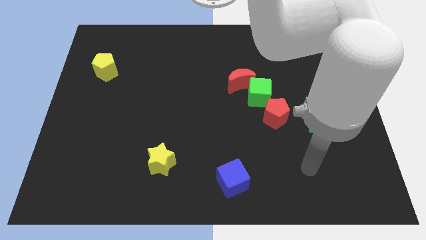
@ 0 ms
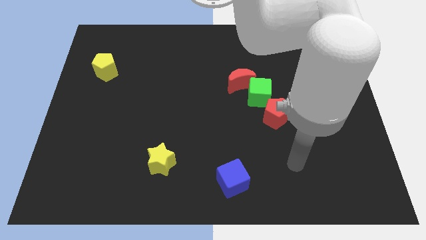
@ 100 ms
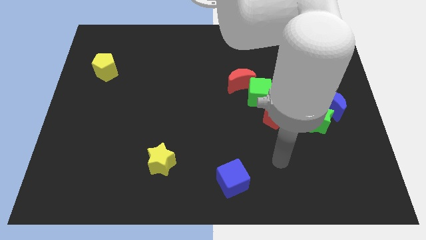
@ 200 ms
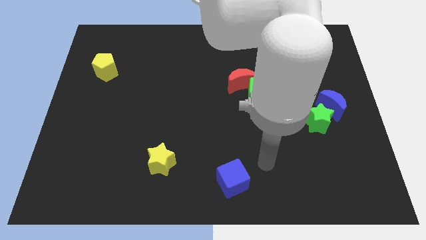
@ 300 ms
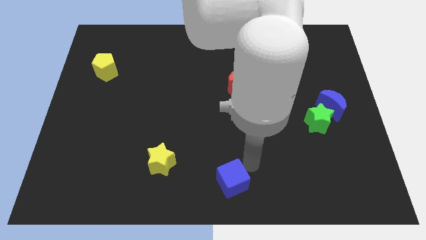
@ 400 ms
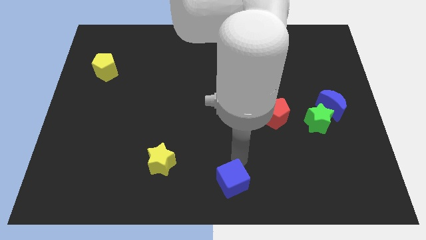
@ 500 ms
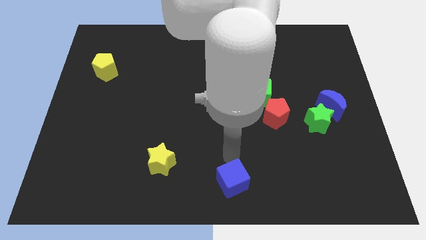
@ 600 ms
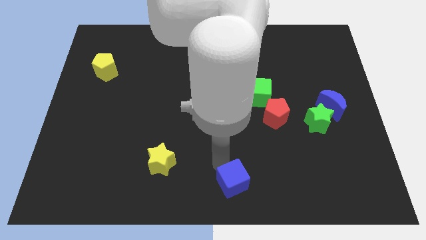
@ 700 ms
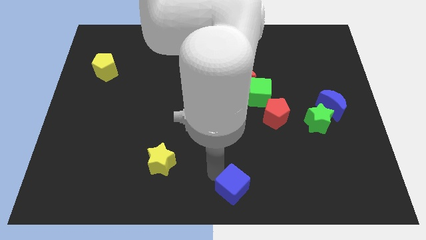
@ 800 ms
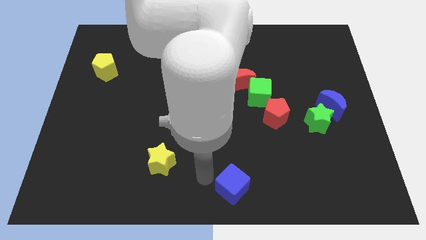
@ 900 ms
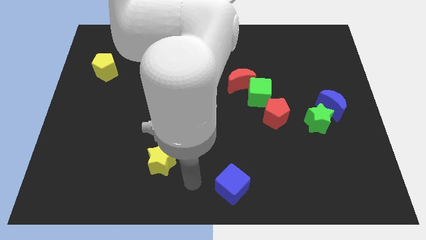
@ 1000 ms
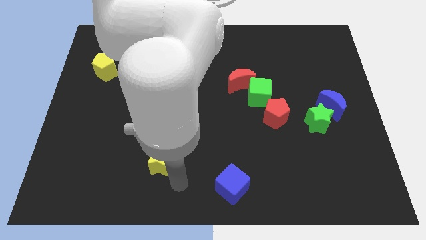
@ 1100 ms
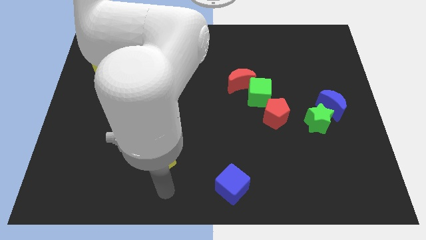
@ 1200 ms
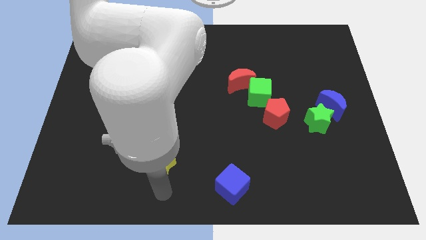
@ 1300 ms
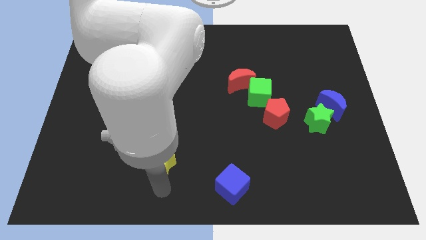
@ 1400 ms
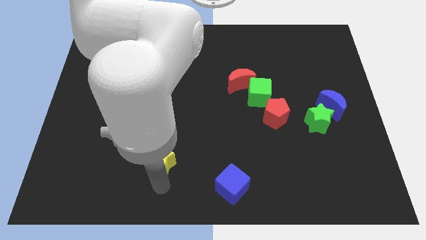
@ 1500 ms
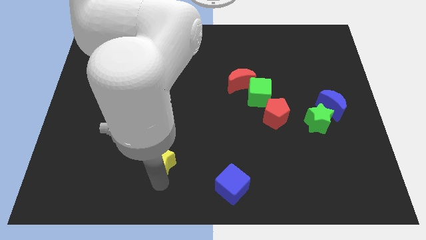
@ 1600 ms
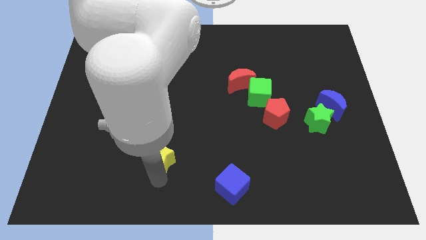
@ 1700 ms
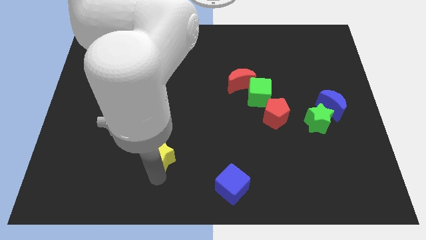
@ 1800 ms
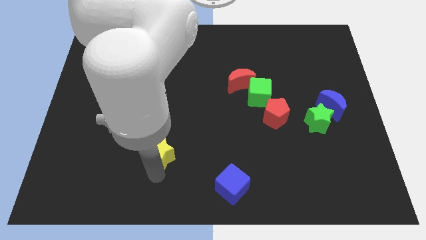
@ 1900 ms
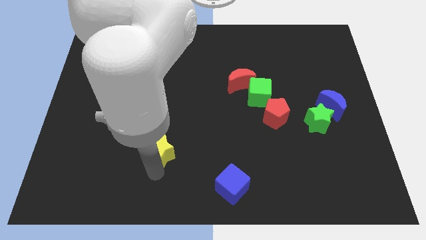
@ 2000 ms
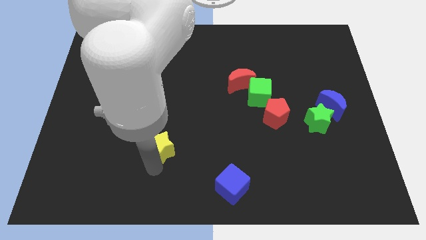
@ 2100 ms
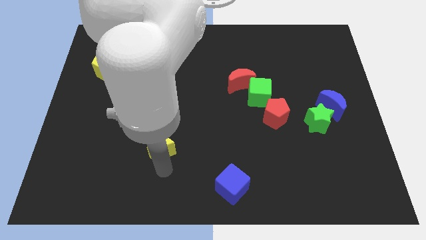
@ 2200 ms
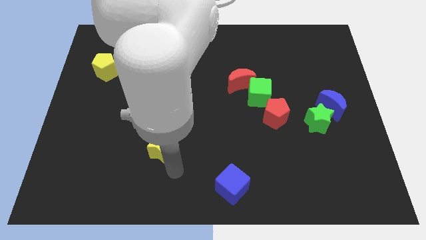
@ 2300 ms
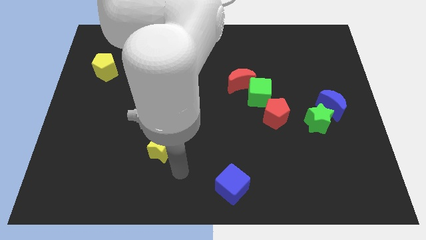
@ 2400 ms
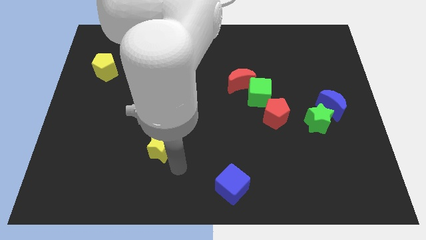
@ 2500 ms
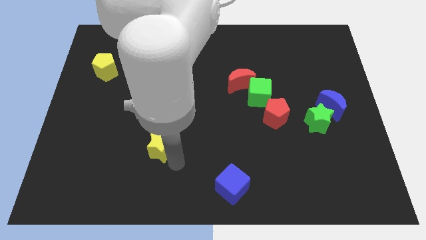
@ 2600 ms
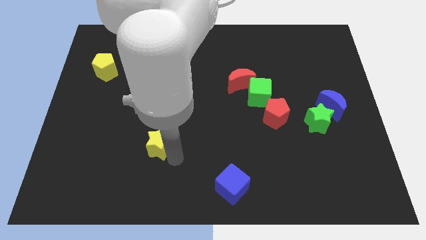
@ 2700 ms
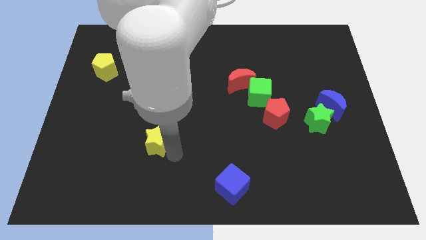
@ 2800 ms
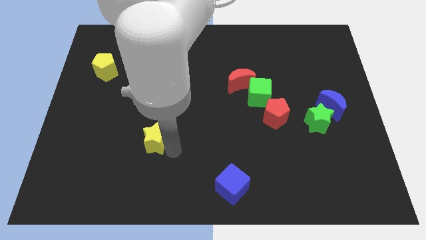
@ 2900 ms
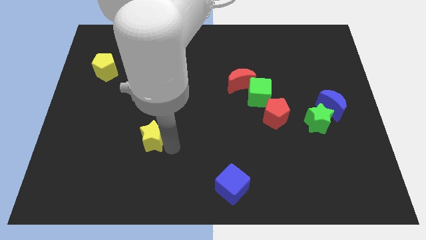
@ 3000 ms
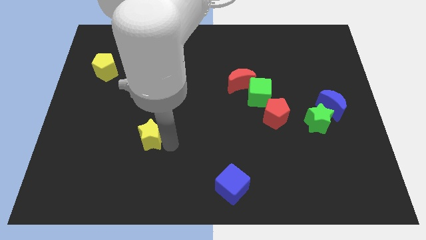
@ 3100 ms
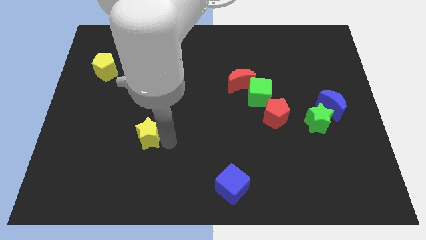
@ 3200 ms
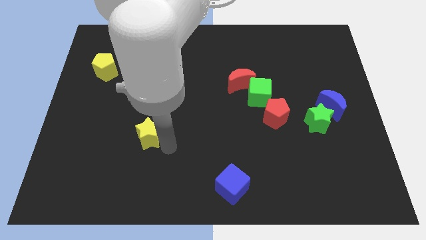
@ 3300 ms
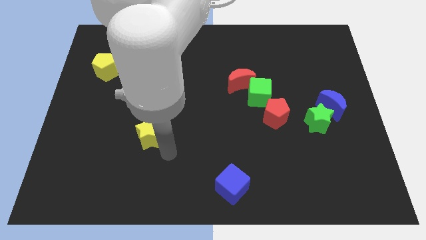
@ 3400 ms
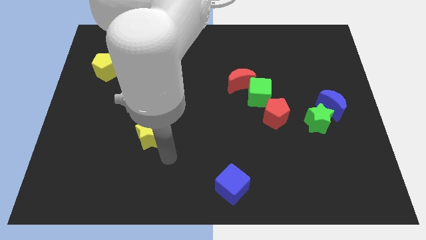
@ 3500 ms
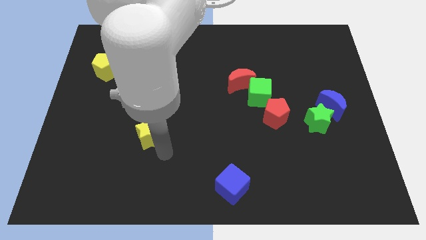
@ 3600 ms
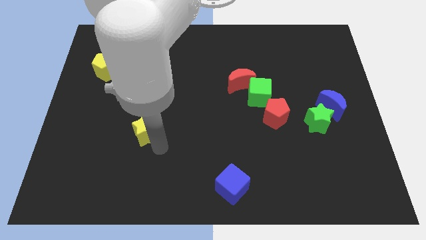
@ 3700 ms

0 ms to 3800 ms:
push the yellow star diagonally upwards and left a little bit

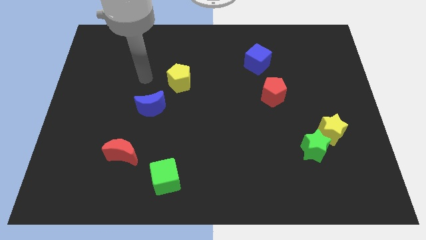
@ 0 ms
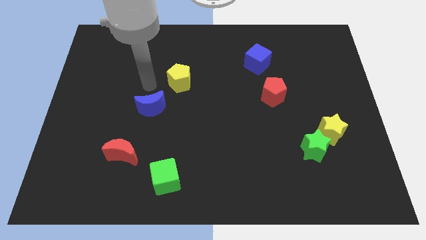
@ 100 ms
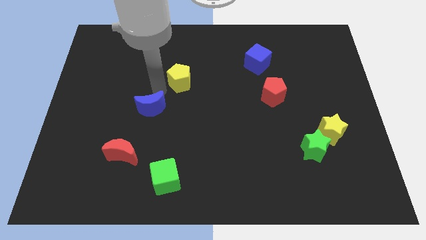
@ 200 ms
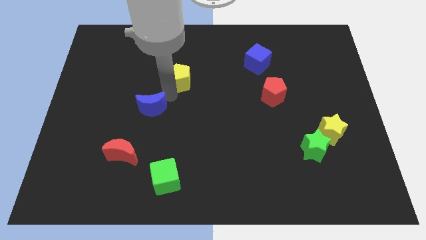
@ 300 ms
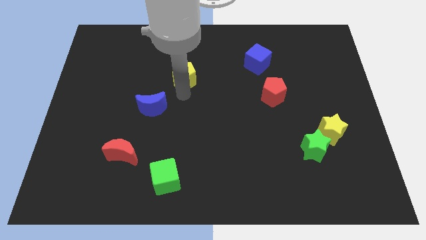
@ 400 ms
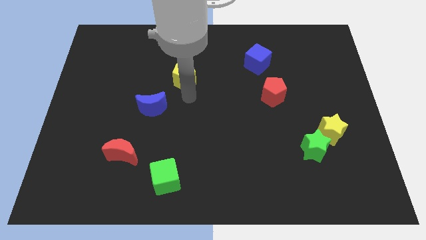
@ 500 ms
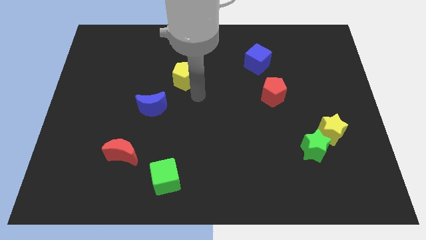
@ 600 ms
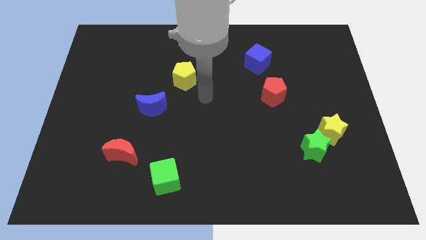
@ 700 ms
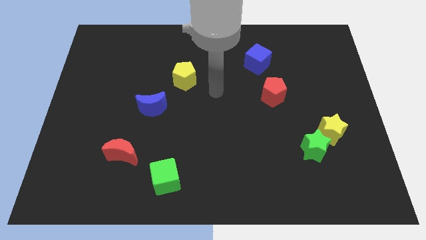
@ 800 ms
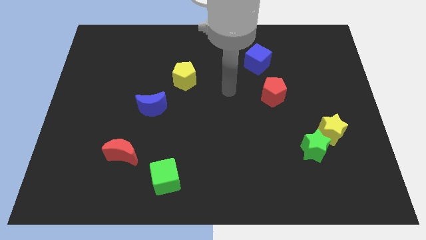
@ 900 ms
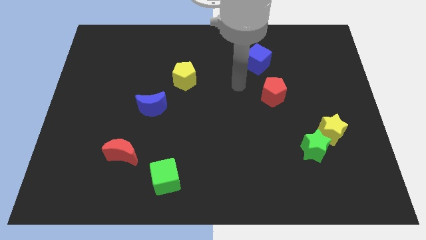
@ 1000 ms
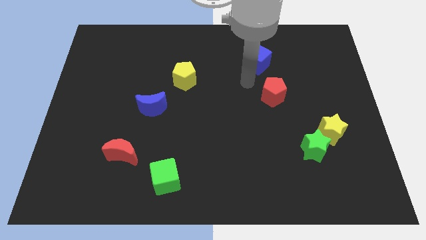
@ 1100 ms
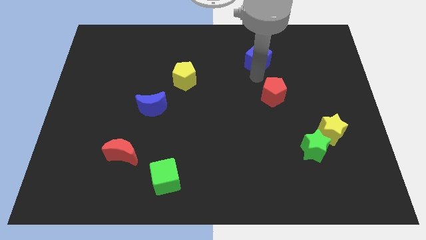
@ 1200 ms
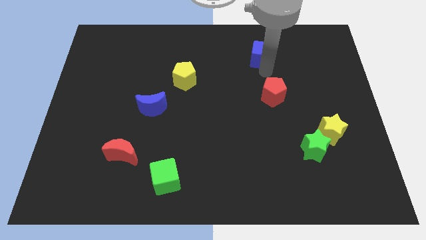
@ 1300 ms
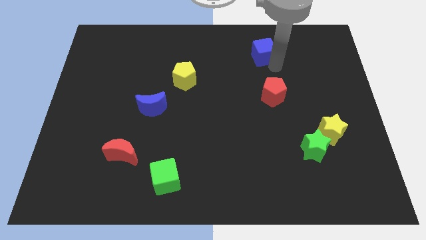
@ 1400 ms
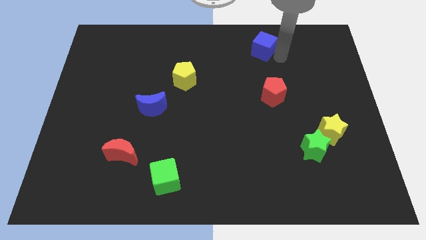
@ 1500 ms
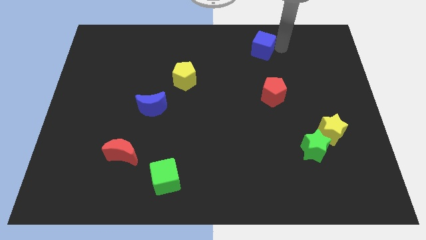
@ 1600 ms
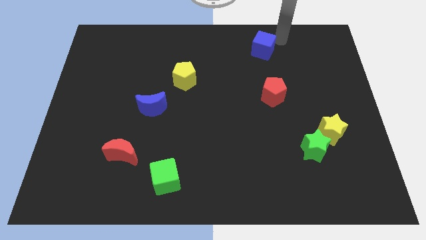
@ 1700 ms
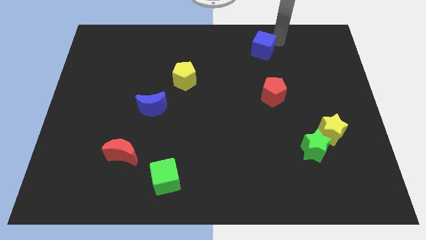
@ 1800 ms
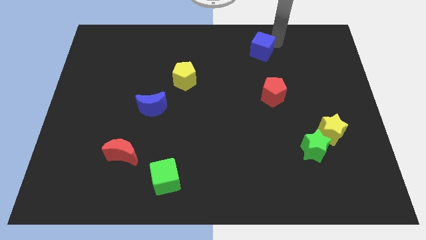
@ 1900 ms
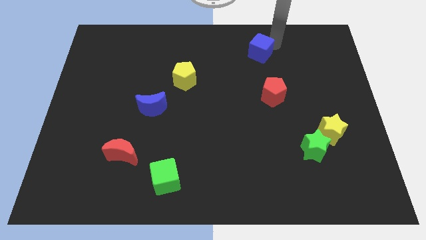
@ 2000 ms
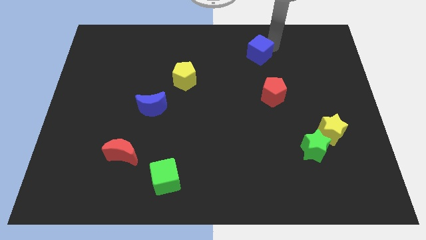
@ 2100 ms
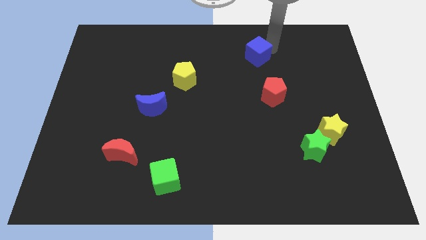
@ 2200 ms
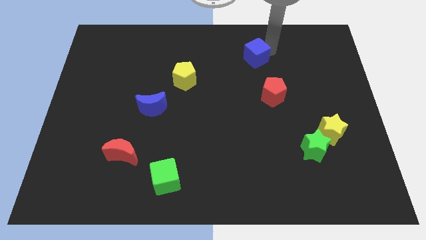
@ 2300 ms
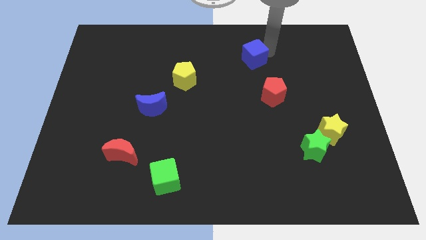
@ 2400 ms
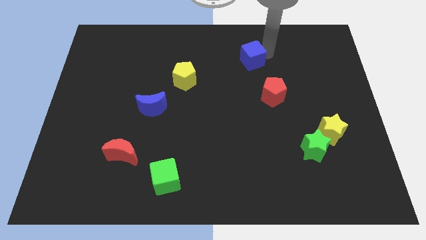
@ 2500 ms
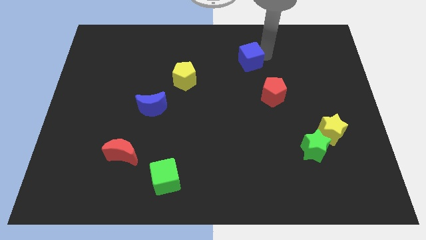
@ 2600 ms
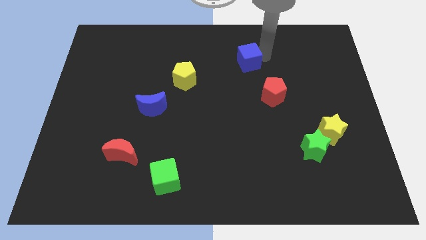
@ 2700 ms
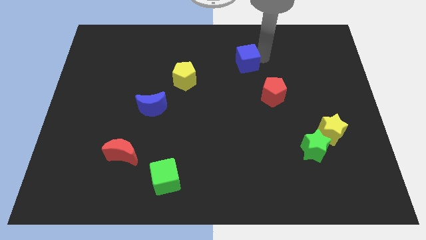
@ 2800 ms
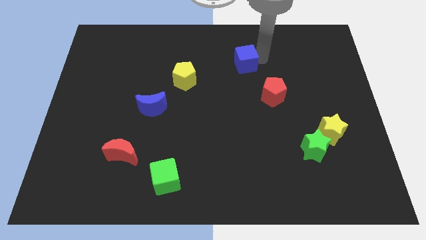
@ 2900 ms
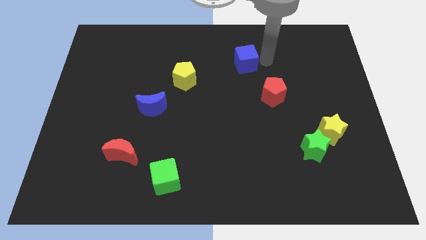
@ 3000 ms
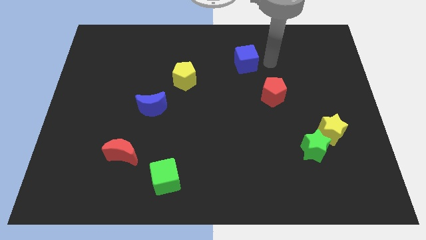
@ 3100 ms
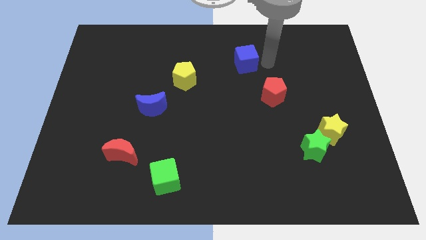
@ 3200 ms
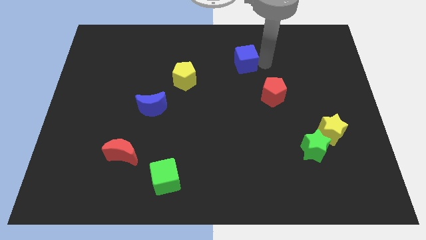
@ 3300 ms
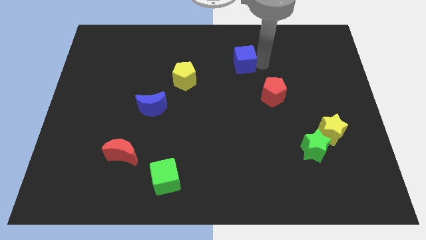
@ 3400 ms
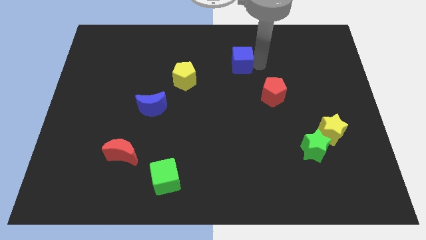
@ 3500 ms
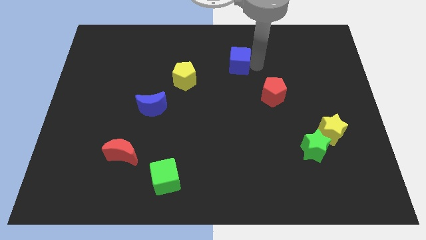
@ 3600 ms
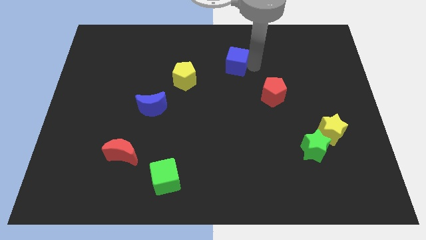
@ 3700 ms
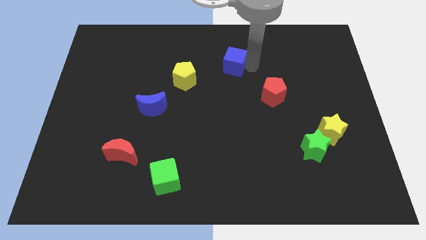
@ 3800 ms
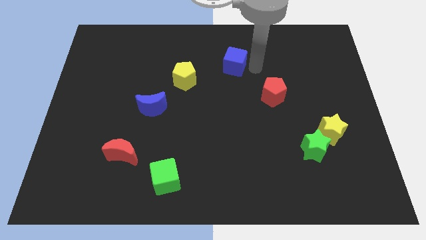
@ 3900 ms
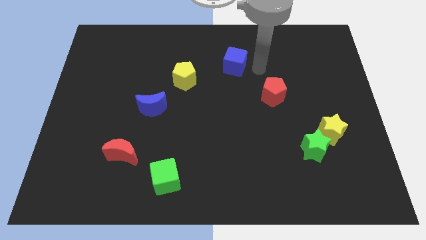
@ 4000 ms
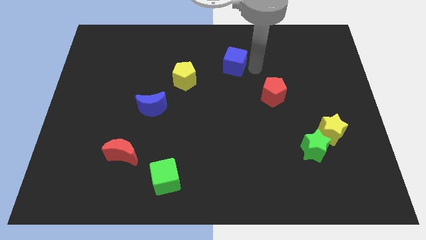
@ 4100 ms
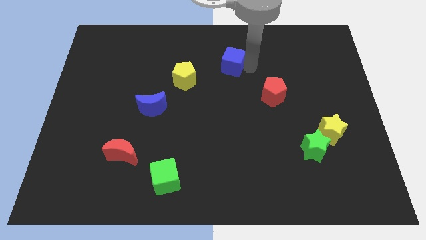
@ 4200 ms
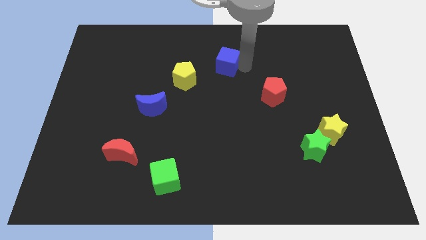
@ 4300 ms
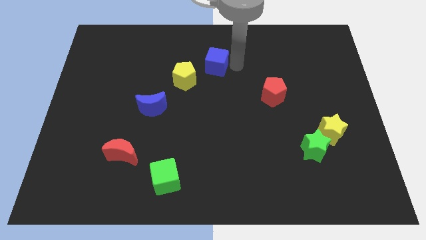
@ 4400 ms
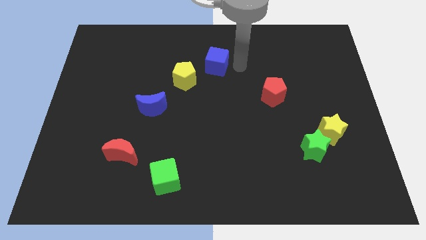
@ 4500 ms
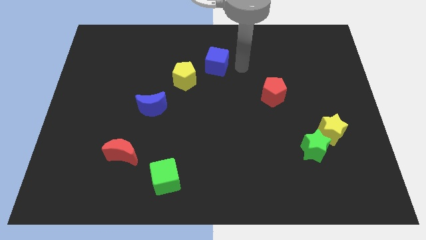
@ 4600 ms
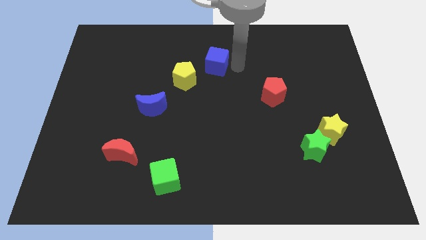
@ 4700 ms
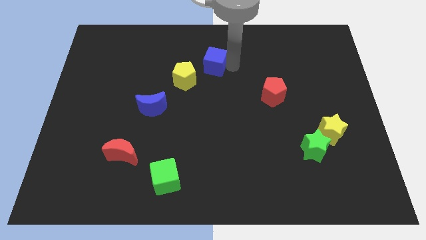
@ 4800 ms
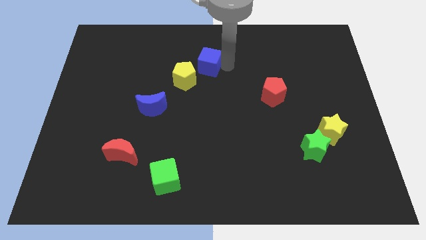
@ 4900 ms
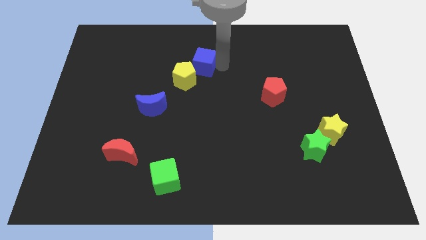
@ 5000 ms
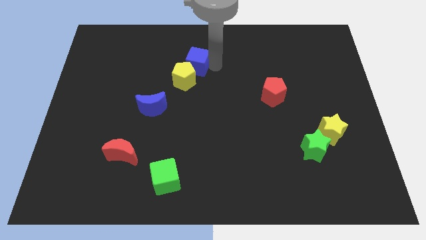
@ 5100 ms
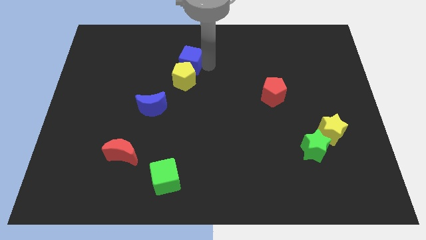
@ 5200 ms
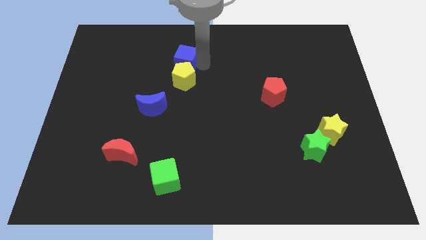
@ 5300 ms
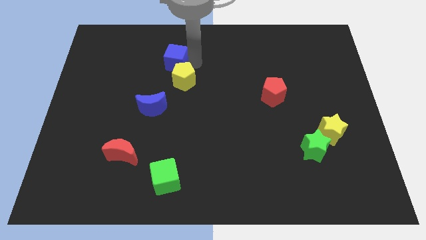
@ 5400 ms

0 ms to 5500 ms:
slide the blue cube to the left
